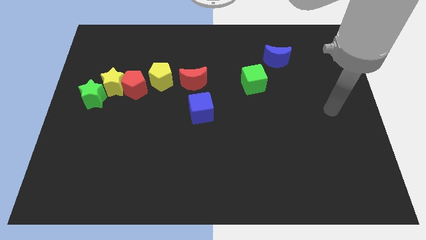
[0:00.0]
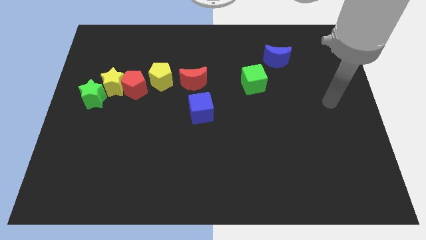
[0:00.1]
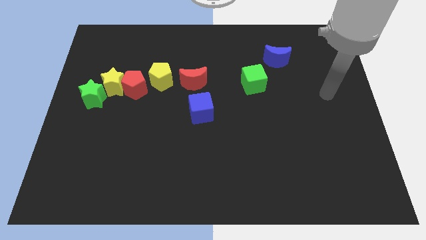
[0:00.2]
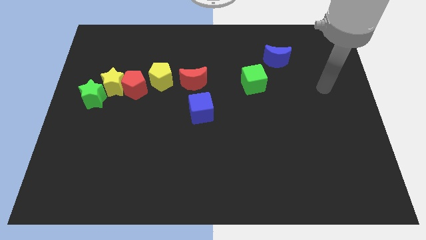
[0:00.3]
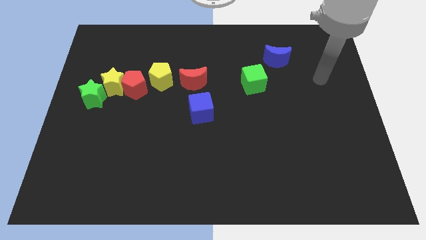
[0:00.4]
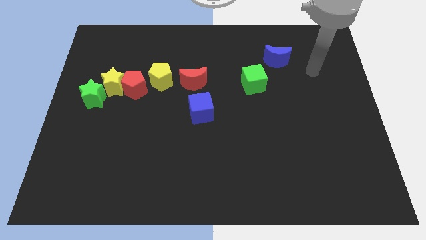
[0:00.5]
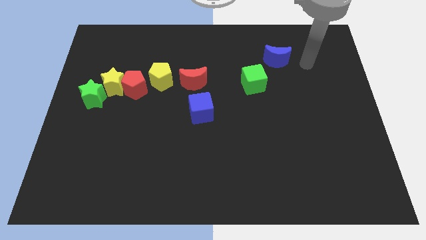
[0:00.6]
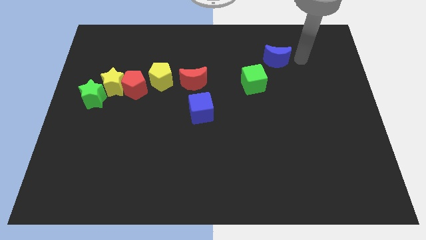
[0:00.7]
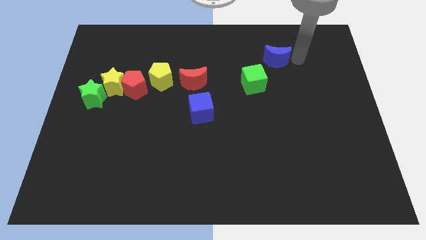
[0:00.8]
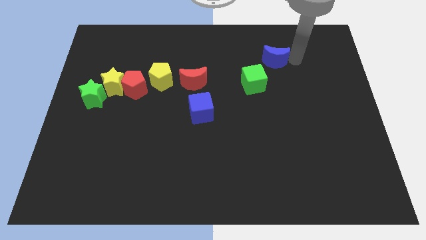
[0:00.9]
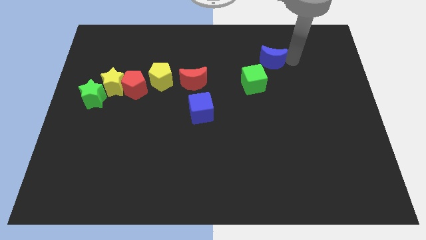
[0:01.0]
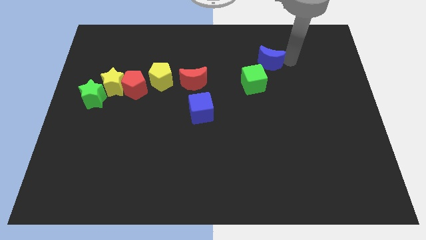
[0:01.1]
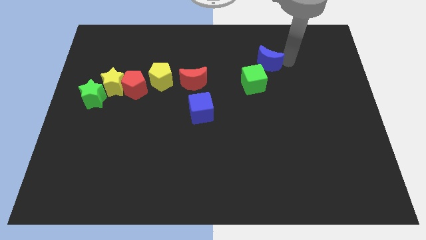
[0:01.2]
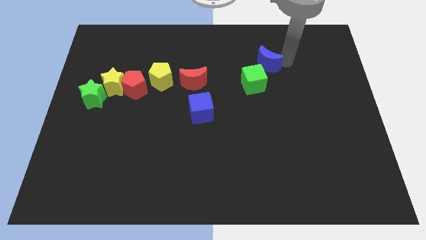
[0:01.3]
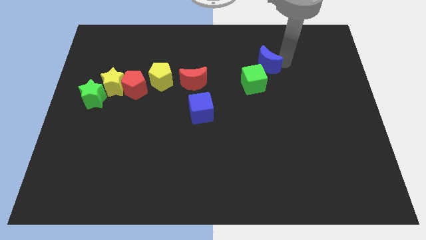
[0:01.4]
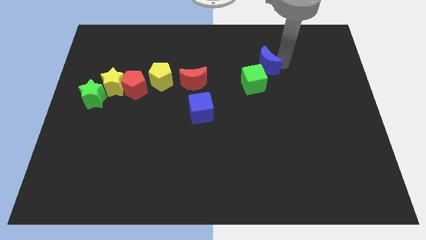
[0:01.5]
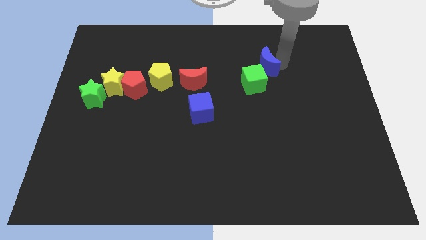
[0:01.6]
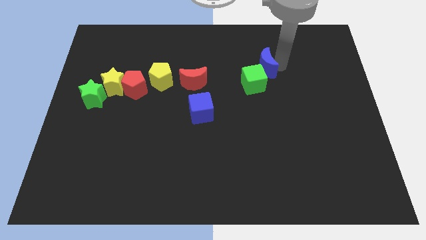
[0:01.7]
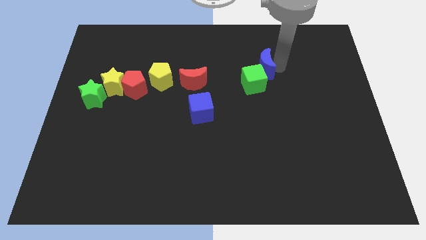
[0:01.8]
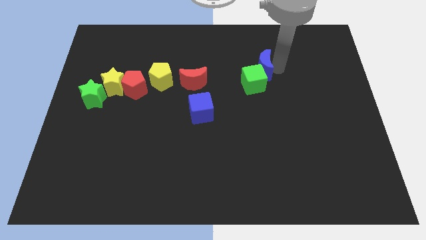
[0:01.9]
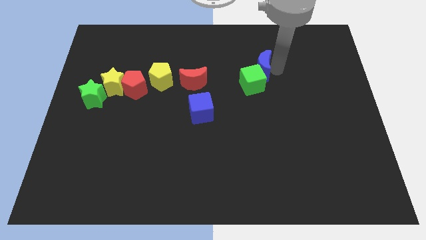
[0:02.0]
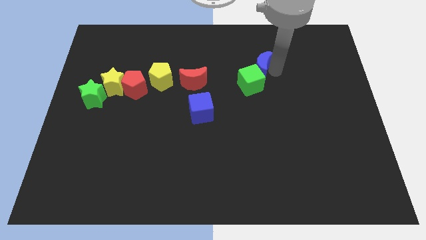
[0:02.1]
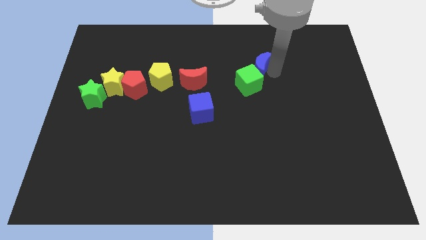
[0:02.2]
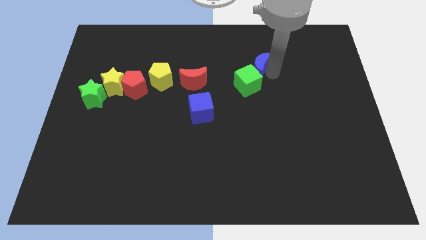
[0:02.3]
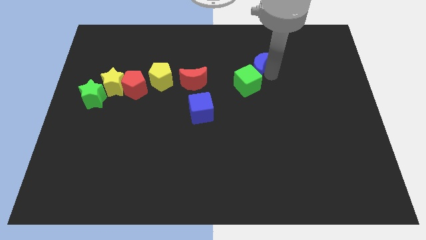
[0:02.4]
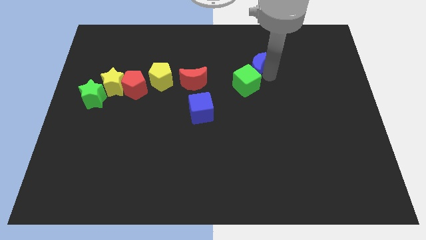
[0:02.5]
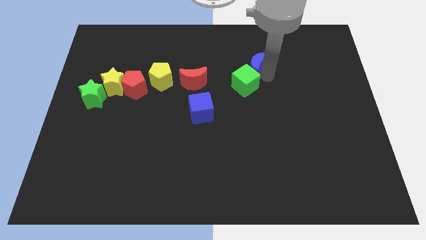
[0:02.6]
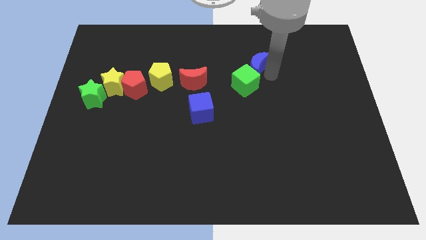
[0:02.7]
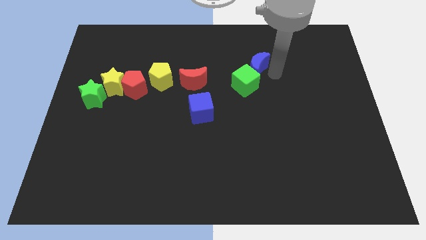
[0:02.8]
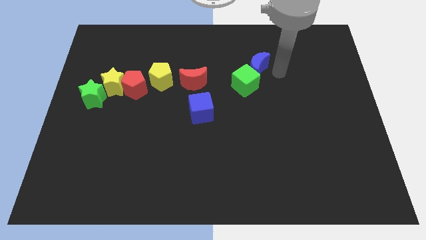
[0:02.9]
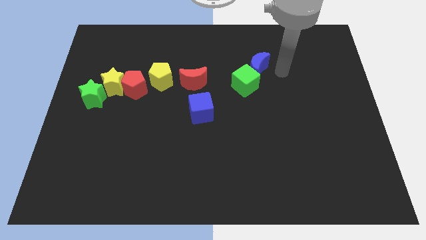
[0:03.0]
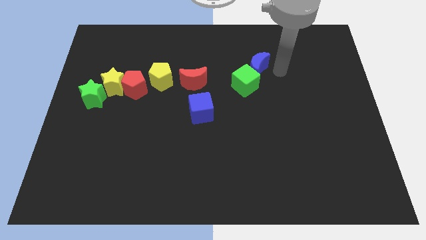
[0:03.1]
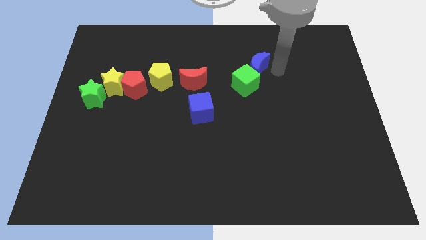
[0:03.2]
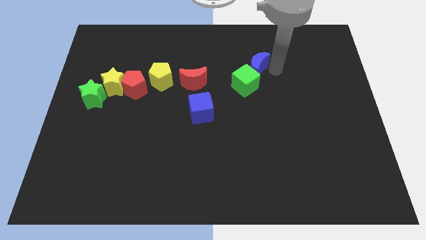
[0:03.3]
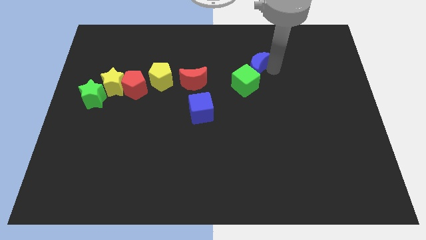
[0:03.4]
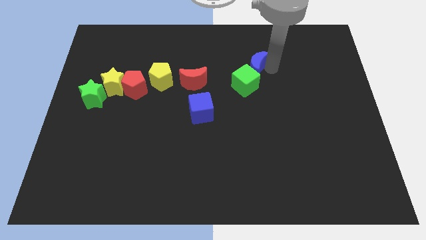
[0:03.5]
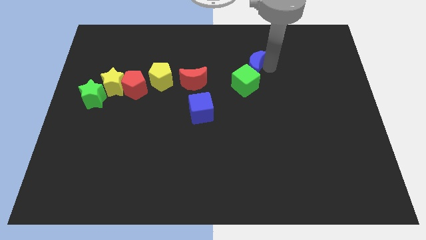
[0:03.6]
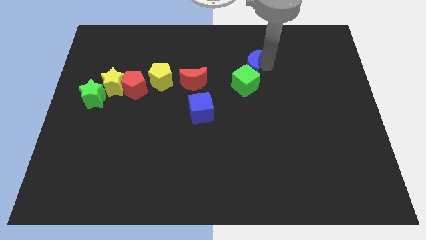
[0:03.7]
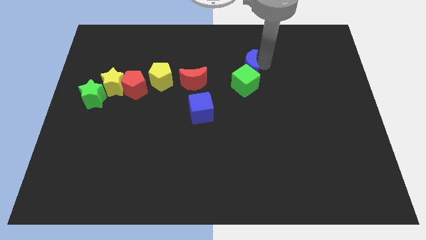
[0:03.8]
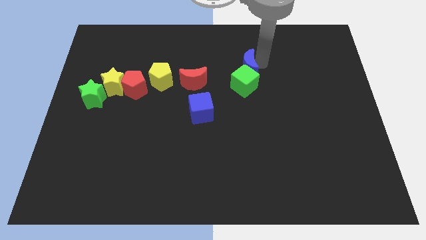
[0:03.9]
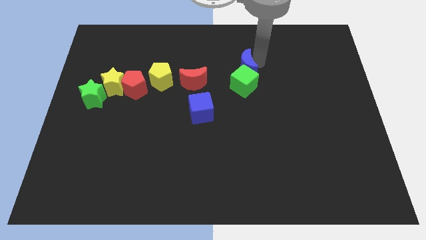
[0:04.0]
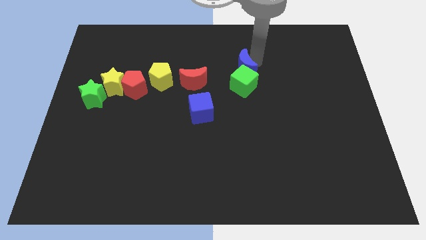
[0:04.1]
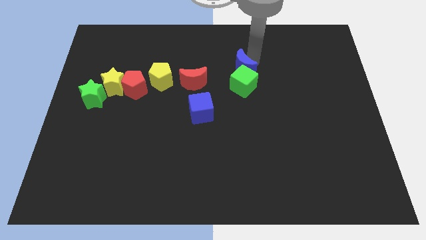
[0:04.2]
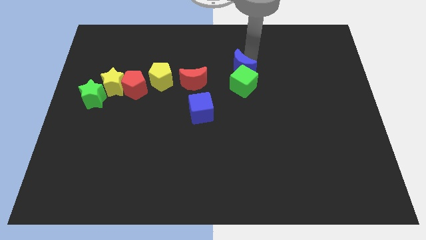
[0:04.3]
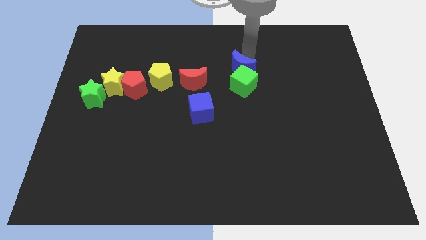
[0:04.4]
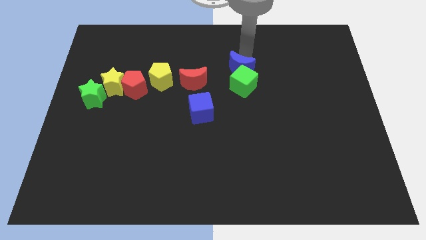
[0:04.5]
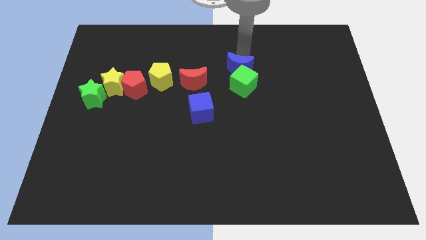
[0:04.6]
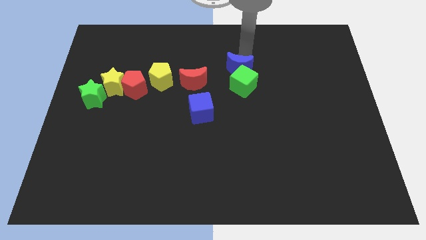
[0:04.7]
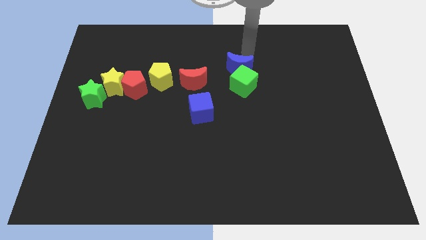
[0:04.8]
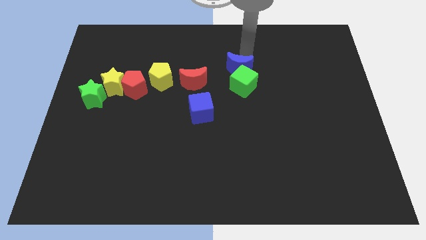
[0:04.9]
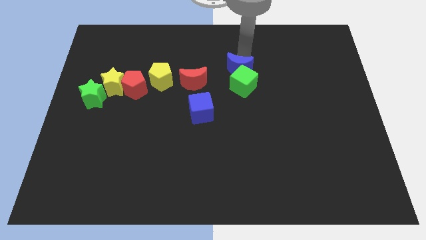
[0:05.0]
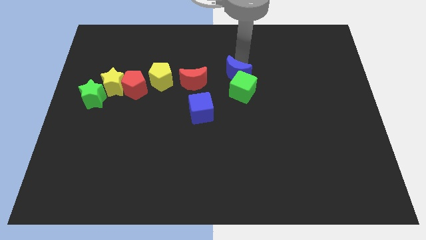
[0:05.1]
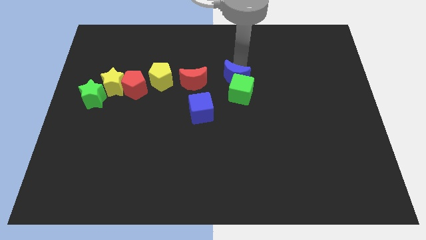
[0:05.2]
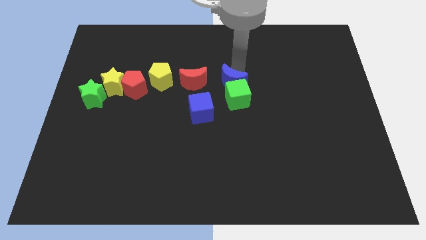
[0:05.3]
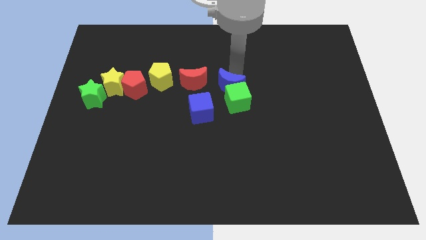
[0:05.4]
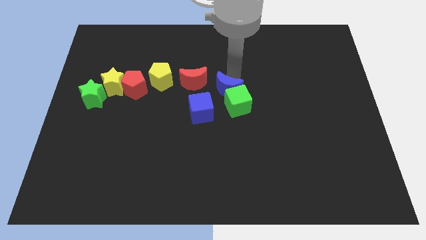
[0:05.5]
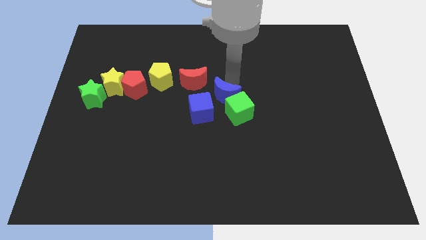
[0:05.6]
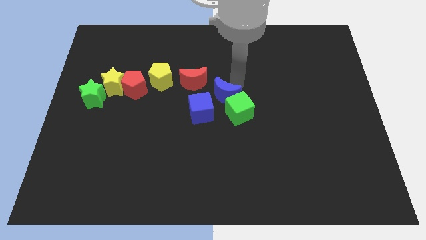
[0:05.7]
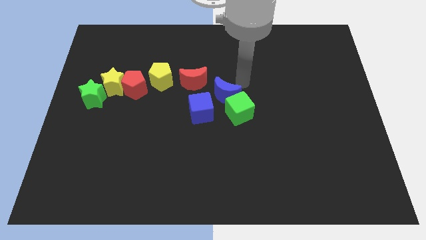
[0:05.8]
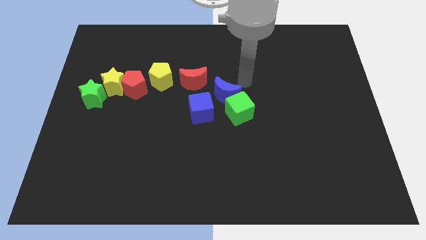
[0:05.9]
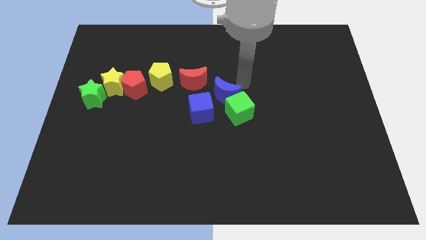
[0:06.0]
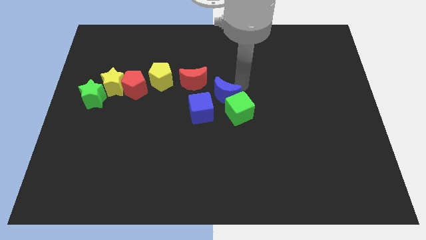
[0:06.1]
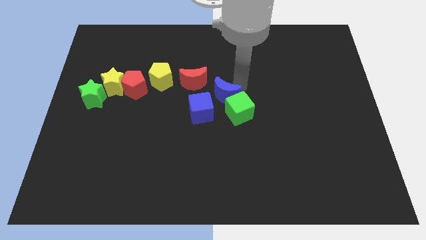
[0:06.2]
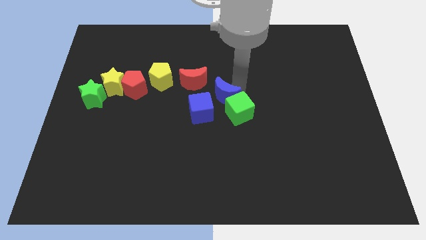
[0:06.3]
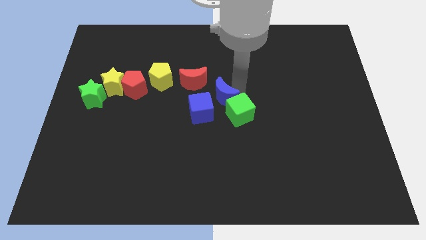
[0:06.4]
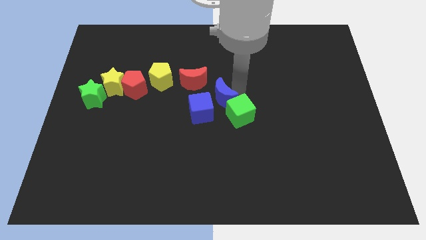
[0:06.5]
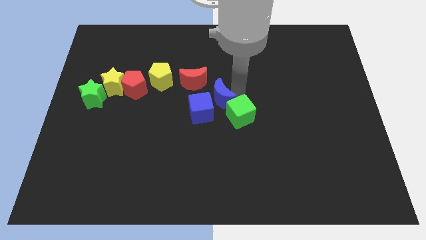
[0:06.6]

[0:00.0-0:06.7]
slide the blue moon towards the blue cube
